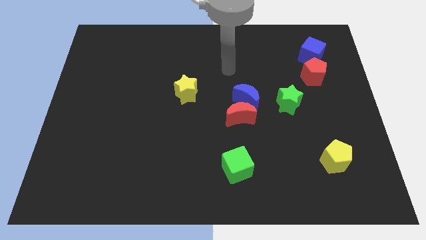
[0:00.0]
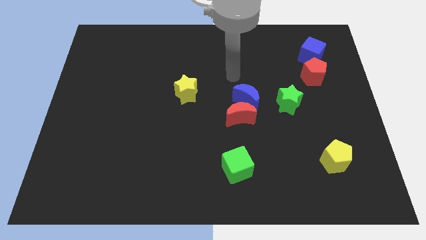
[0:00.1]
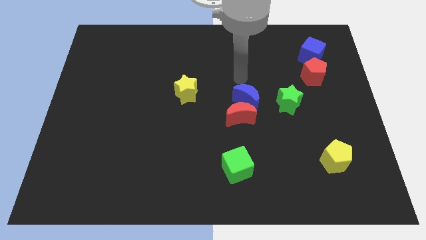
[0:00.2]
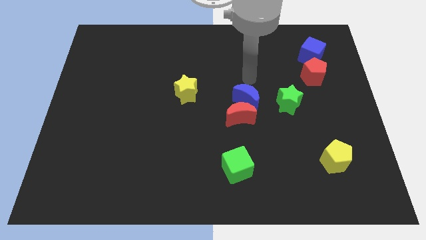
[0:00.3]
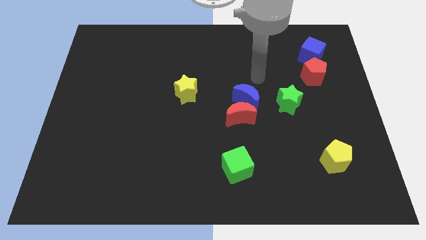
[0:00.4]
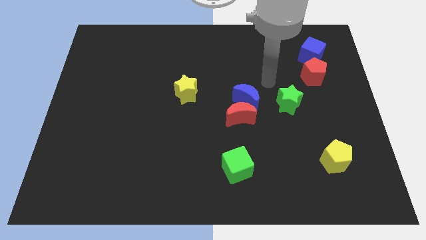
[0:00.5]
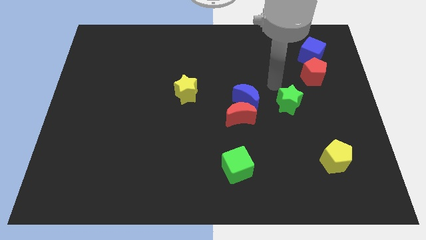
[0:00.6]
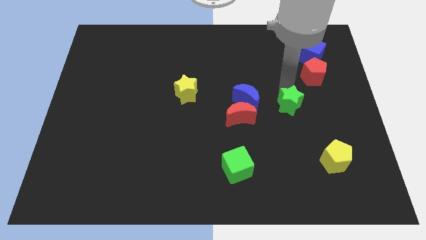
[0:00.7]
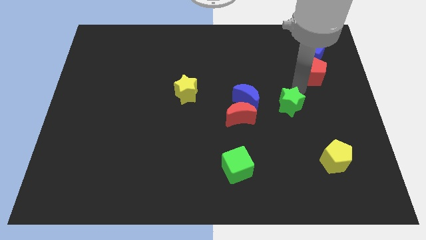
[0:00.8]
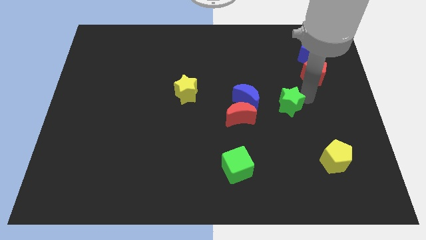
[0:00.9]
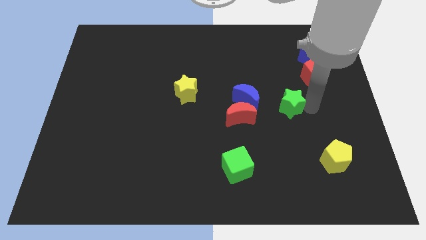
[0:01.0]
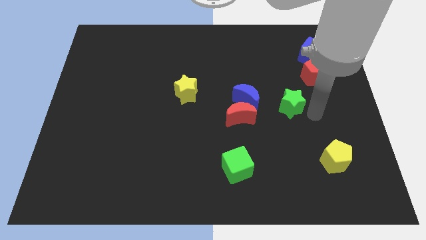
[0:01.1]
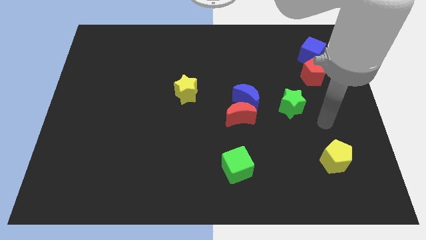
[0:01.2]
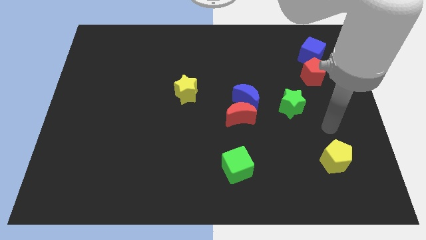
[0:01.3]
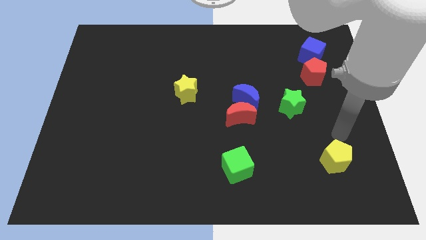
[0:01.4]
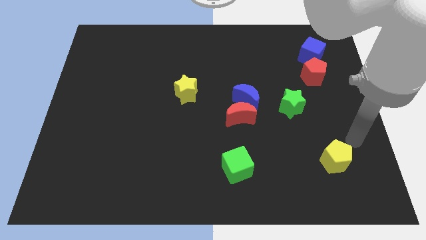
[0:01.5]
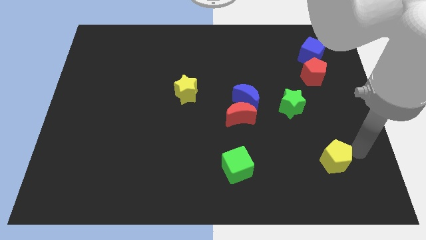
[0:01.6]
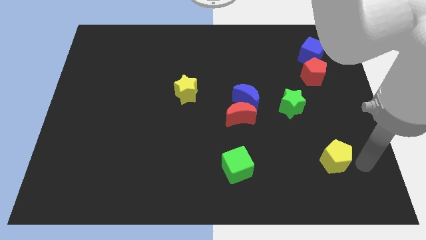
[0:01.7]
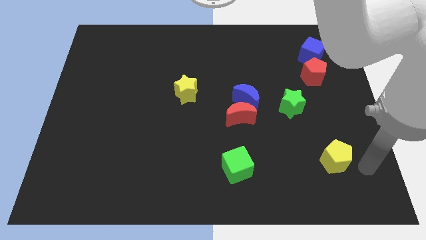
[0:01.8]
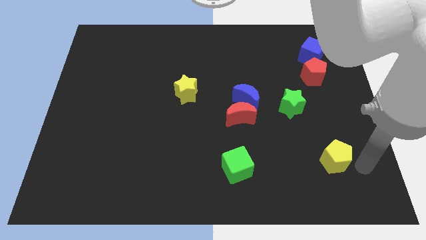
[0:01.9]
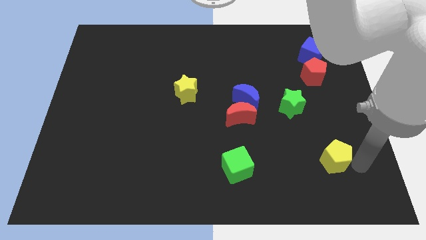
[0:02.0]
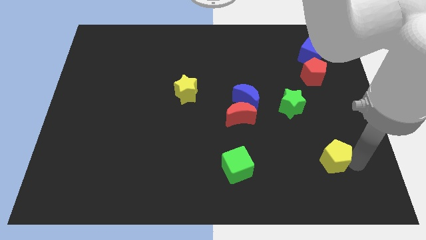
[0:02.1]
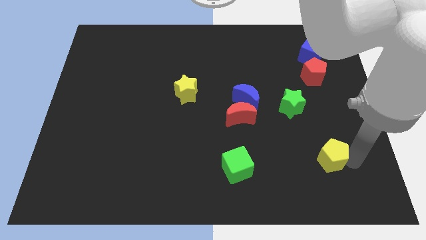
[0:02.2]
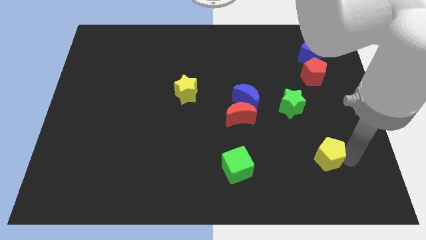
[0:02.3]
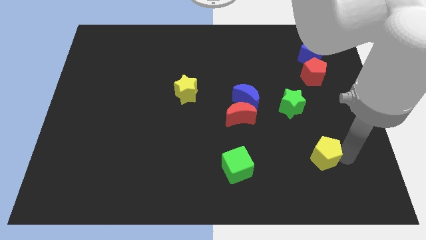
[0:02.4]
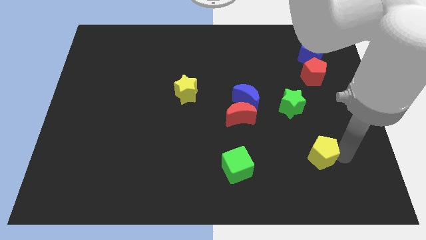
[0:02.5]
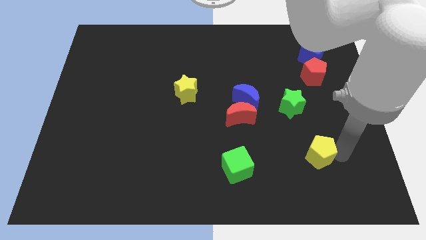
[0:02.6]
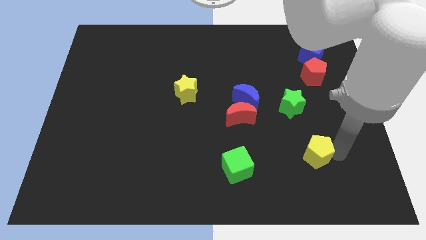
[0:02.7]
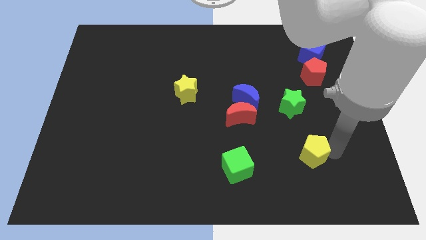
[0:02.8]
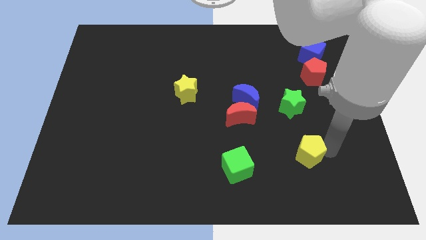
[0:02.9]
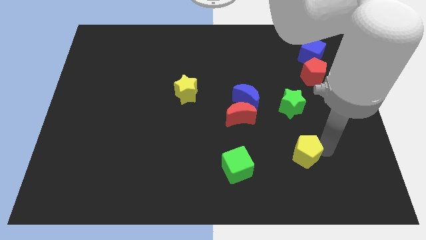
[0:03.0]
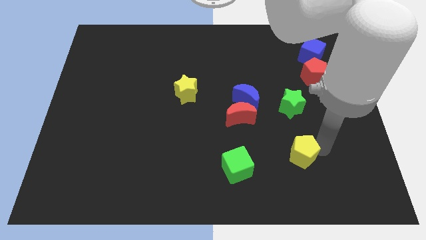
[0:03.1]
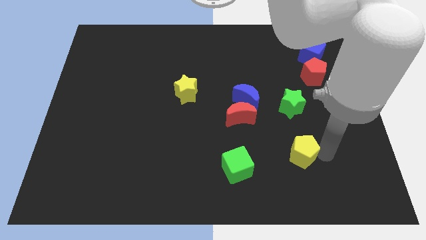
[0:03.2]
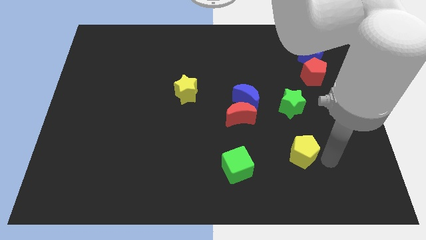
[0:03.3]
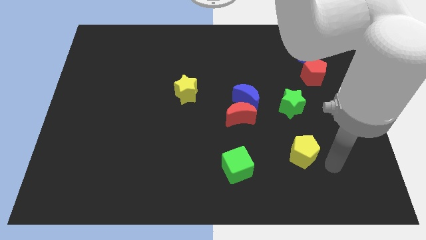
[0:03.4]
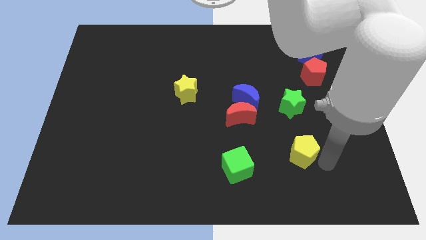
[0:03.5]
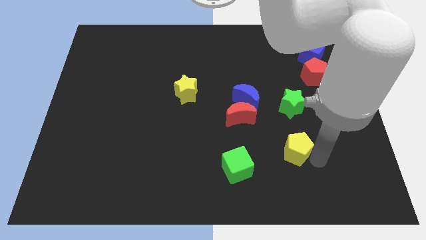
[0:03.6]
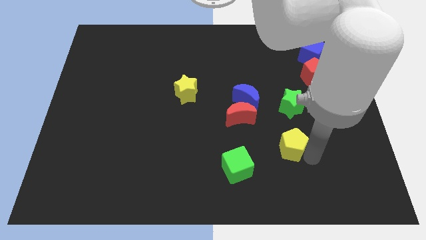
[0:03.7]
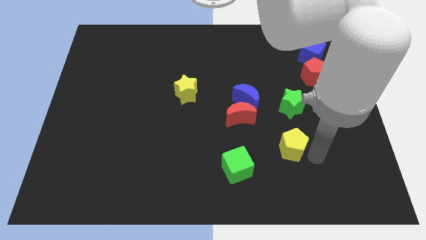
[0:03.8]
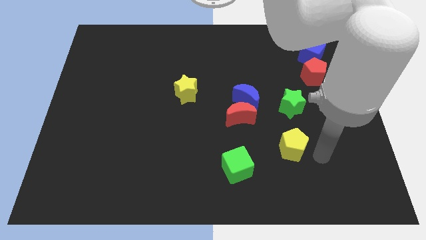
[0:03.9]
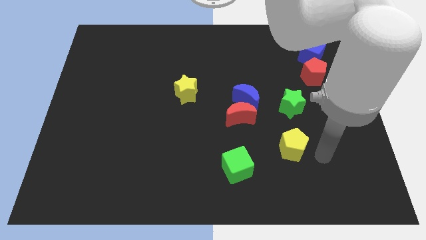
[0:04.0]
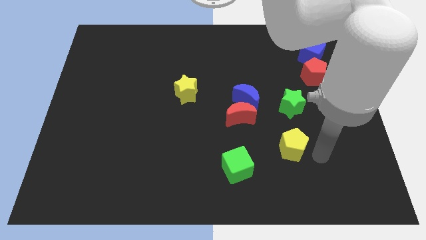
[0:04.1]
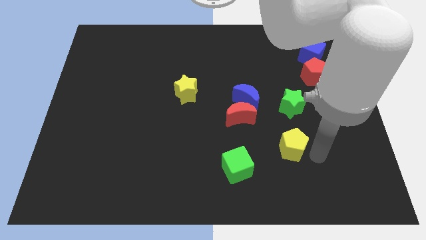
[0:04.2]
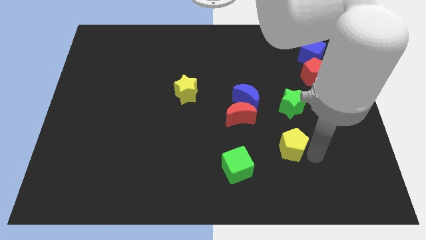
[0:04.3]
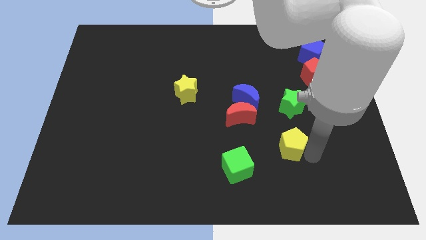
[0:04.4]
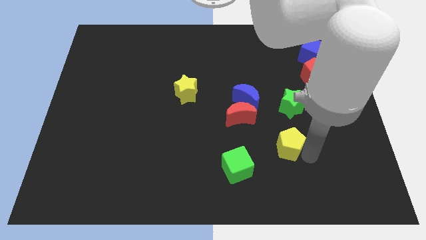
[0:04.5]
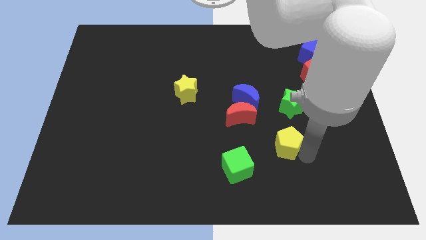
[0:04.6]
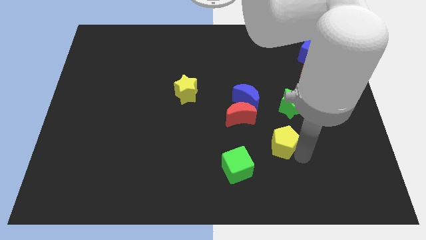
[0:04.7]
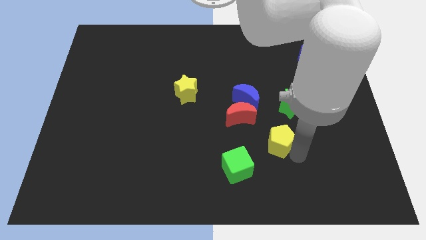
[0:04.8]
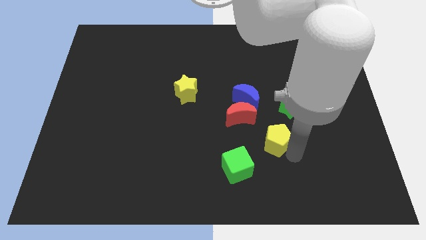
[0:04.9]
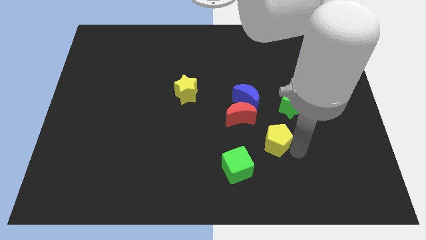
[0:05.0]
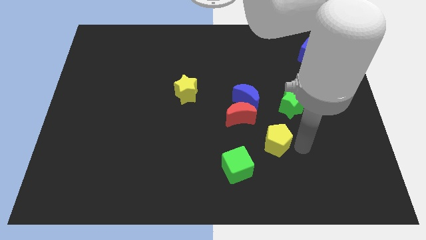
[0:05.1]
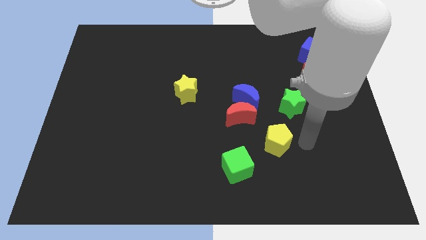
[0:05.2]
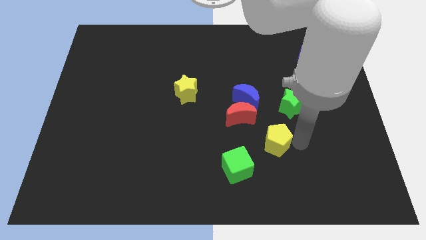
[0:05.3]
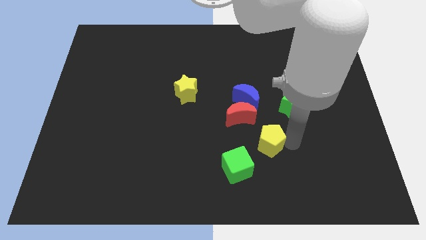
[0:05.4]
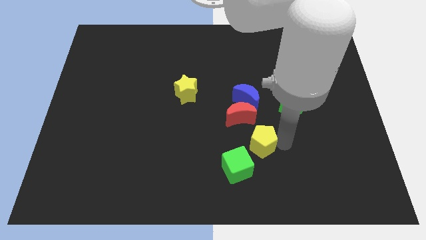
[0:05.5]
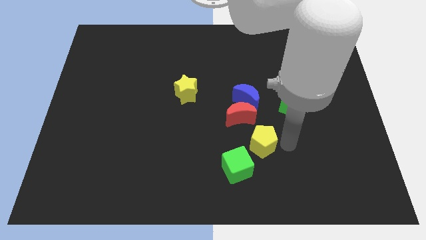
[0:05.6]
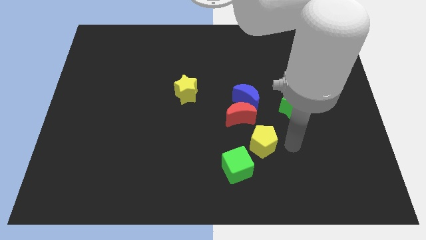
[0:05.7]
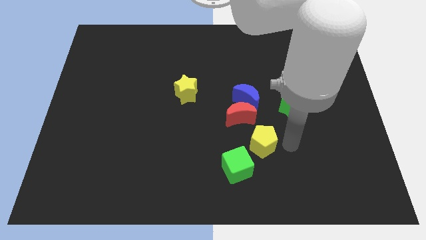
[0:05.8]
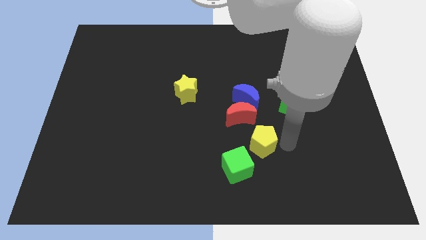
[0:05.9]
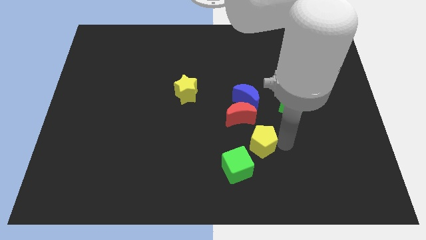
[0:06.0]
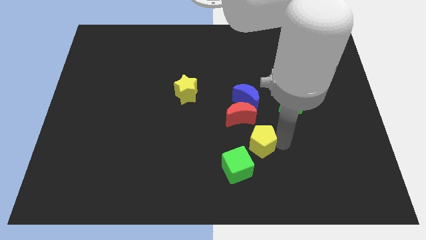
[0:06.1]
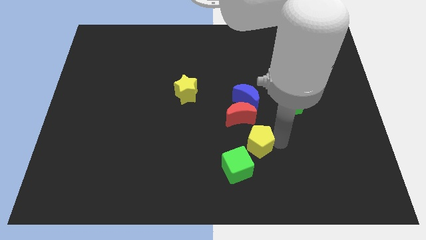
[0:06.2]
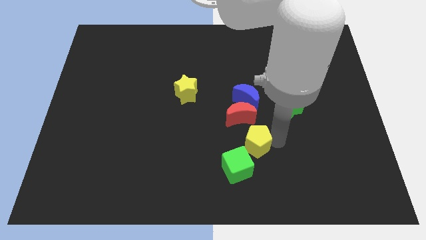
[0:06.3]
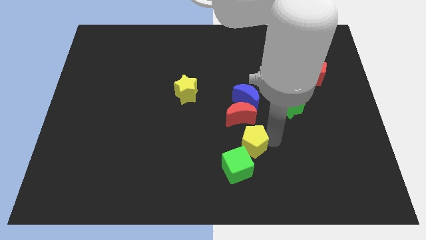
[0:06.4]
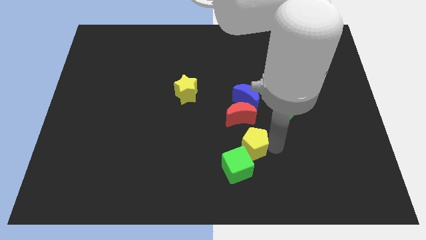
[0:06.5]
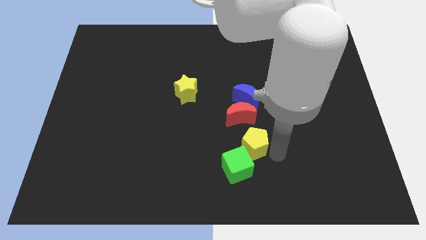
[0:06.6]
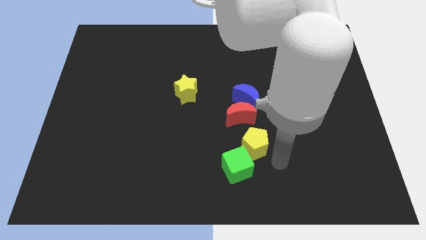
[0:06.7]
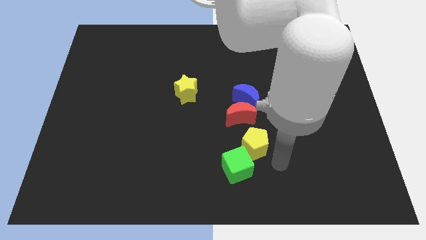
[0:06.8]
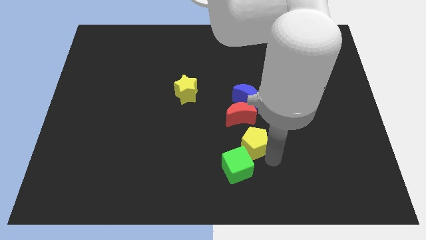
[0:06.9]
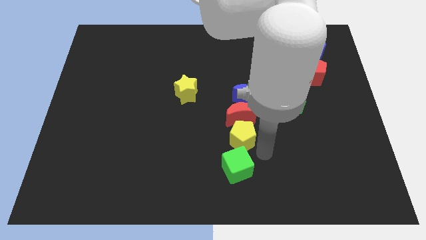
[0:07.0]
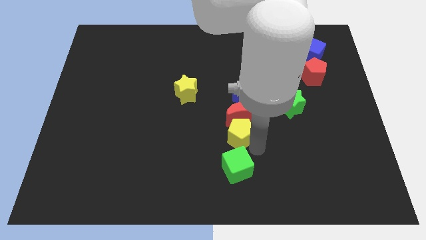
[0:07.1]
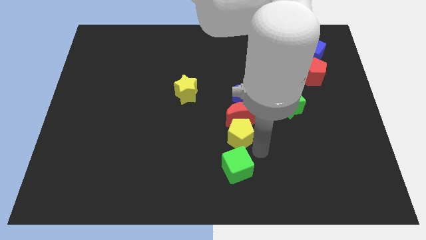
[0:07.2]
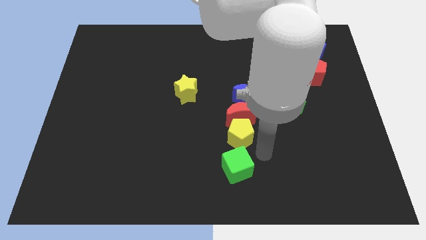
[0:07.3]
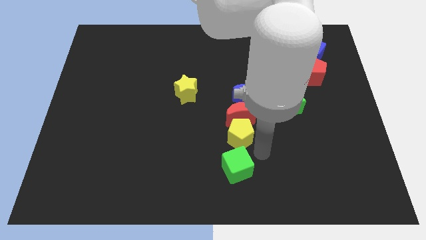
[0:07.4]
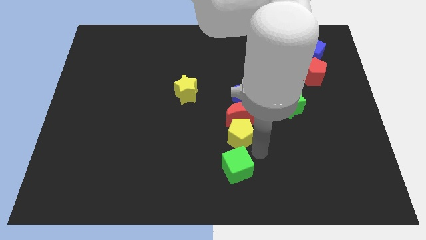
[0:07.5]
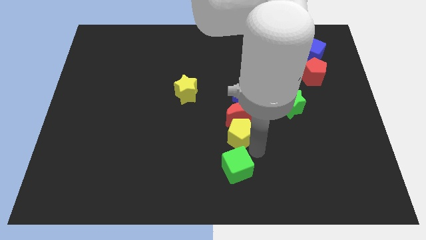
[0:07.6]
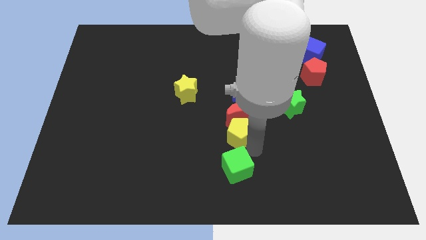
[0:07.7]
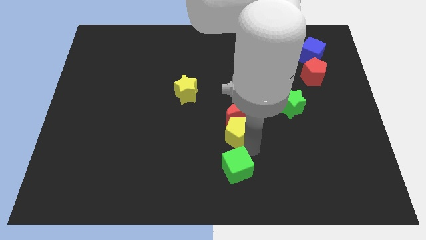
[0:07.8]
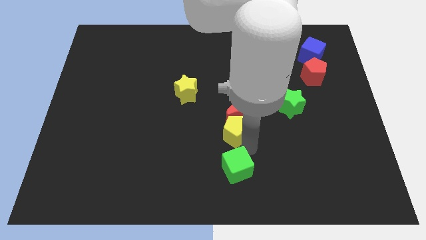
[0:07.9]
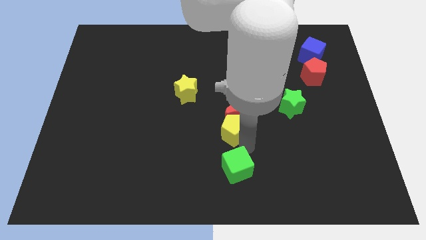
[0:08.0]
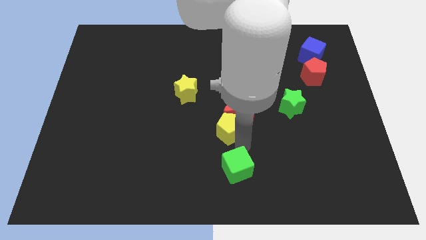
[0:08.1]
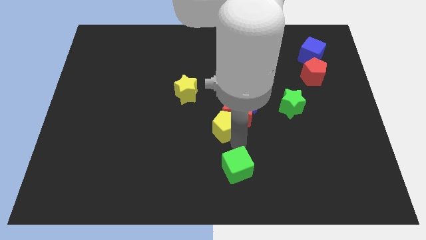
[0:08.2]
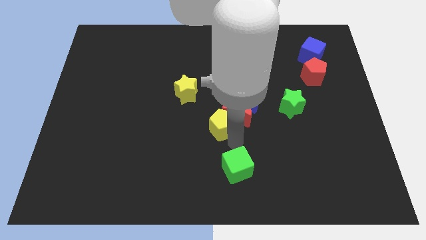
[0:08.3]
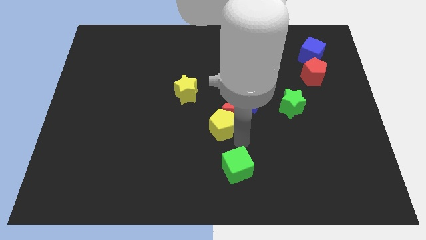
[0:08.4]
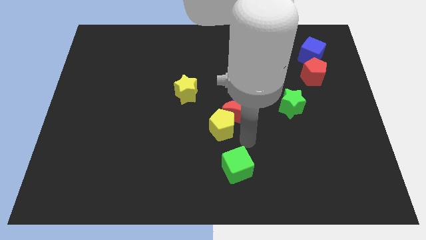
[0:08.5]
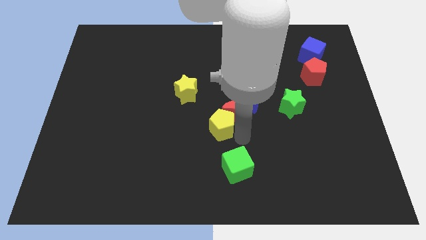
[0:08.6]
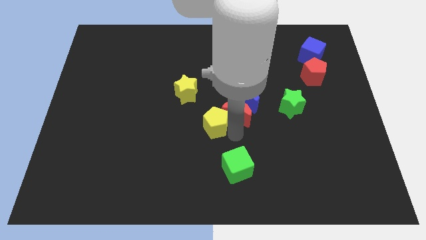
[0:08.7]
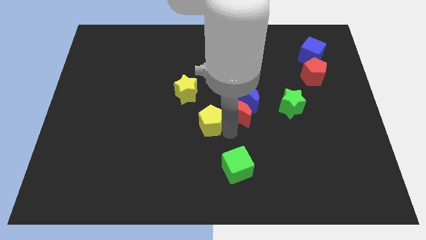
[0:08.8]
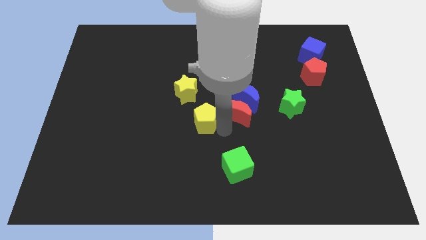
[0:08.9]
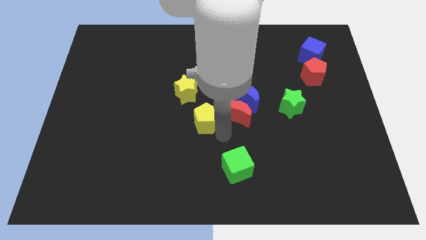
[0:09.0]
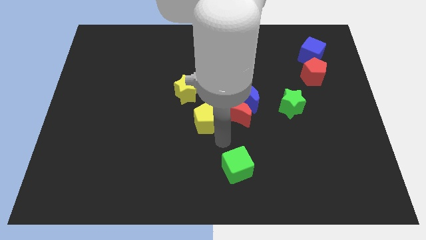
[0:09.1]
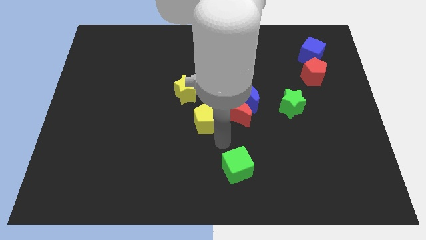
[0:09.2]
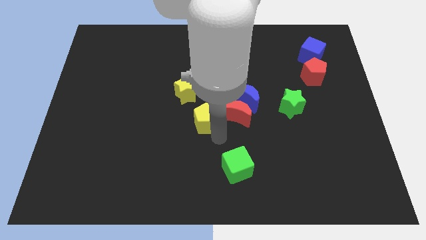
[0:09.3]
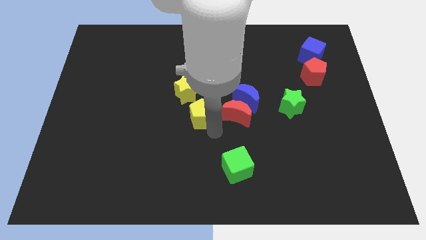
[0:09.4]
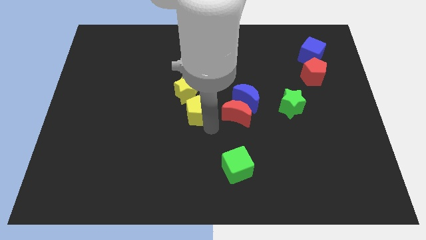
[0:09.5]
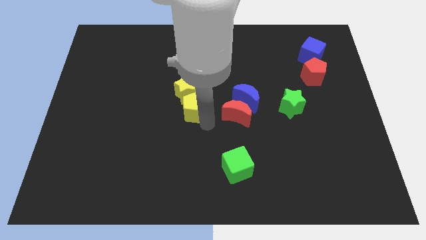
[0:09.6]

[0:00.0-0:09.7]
put the yellow pentagon close to the yellow star
